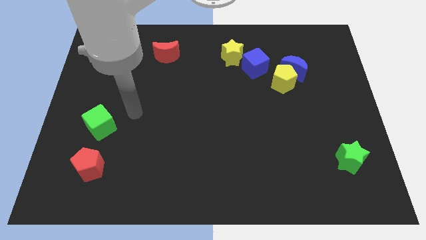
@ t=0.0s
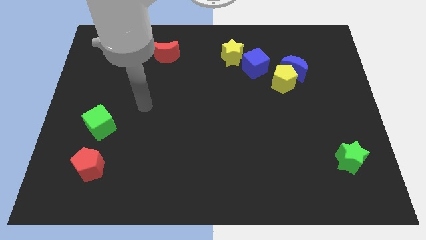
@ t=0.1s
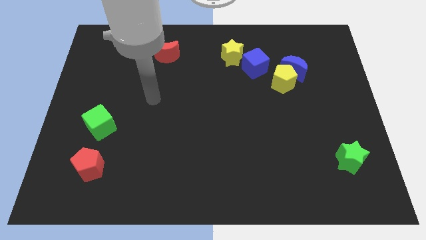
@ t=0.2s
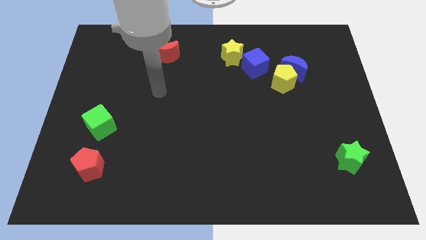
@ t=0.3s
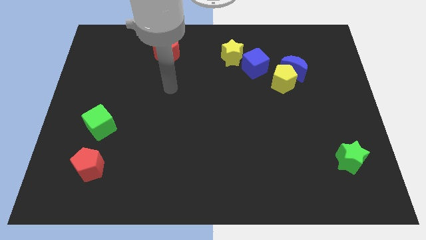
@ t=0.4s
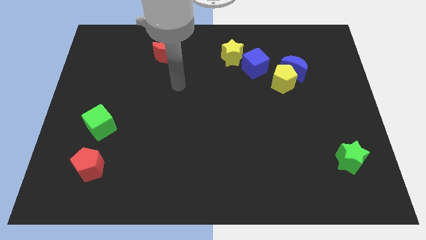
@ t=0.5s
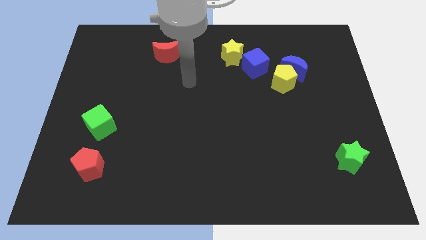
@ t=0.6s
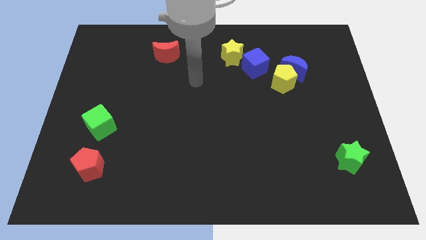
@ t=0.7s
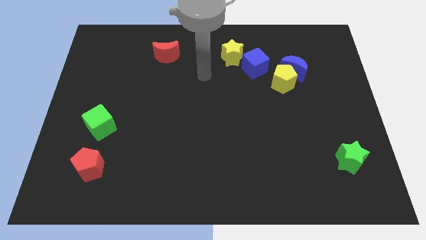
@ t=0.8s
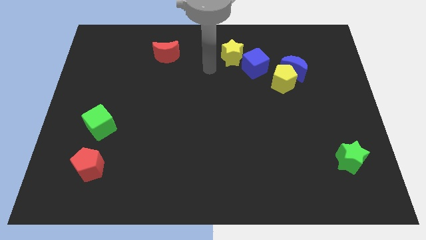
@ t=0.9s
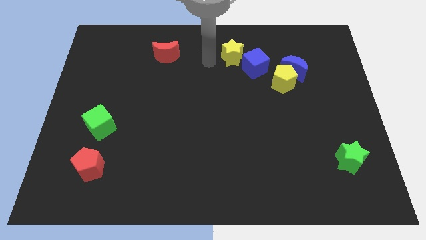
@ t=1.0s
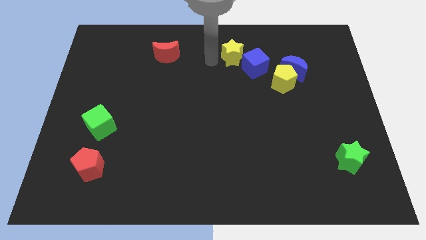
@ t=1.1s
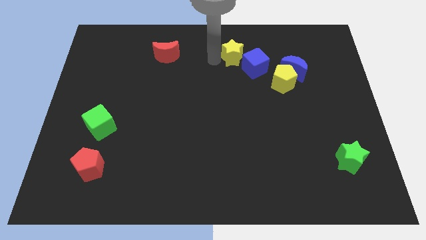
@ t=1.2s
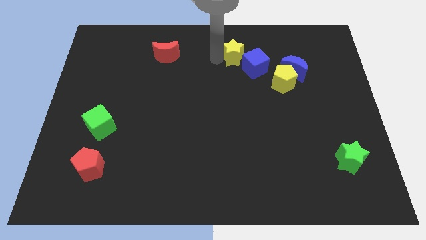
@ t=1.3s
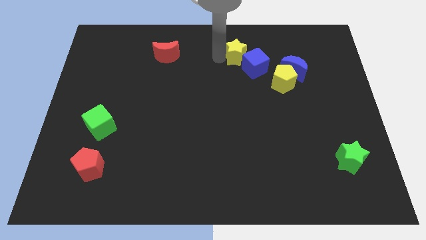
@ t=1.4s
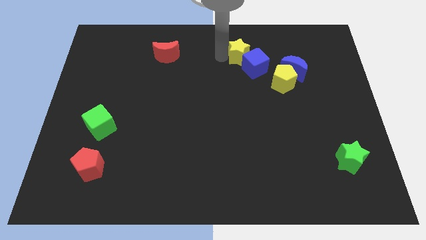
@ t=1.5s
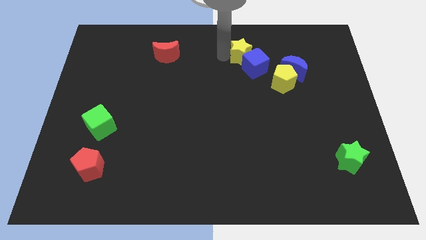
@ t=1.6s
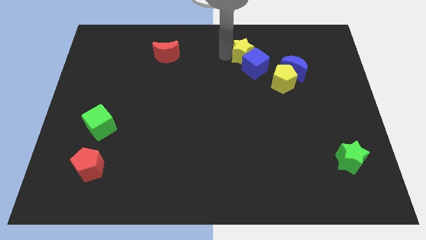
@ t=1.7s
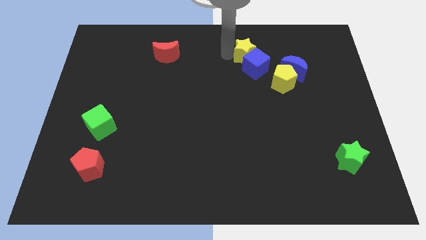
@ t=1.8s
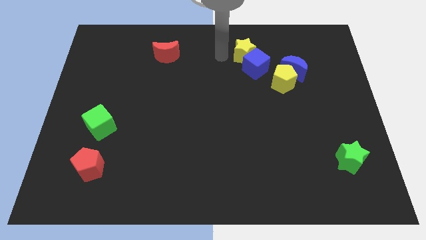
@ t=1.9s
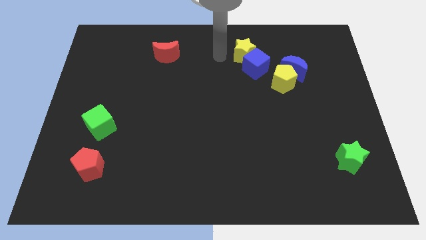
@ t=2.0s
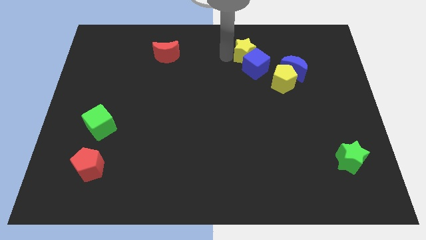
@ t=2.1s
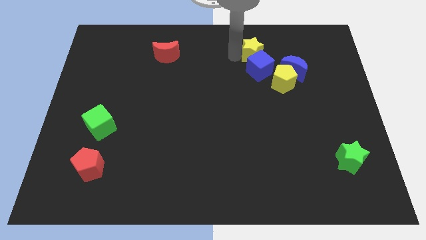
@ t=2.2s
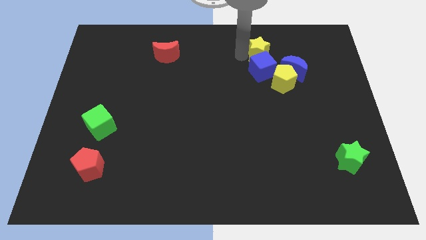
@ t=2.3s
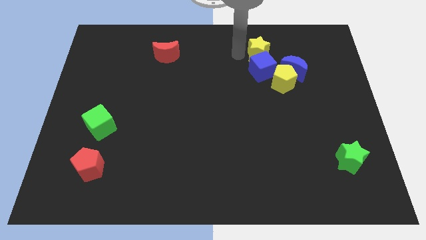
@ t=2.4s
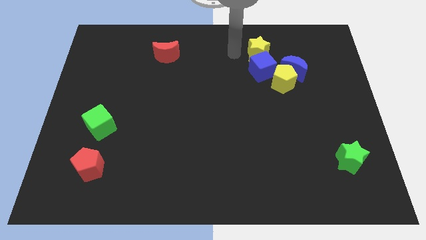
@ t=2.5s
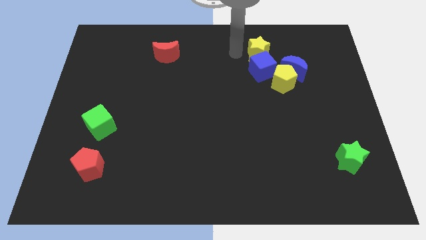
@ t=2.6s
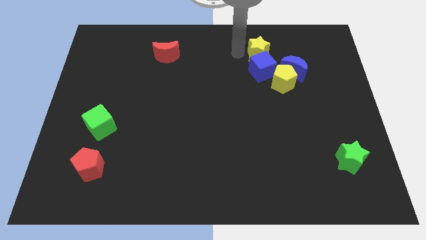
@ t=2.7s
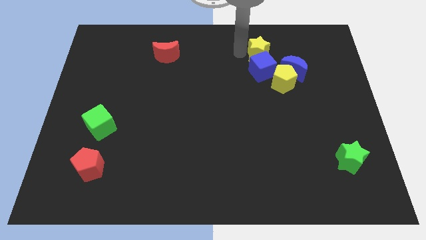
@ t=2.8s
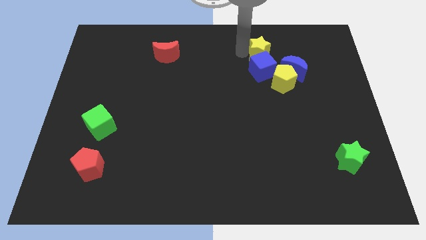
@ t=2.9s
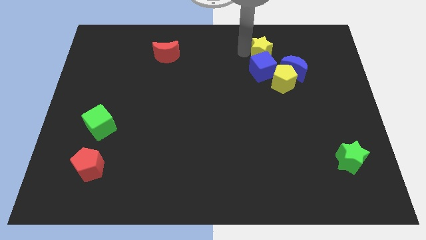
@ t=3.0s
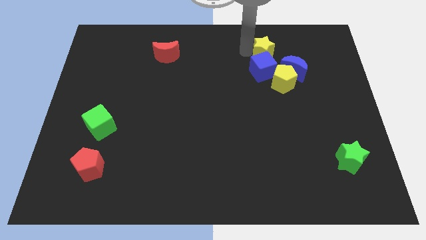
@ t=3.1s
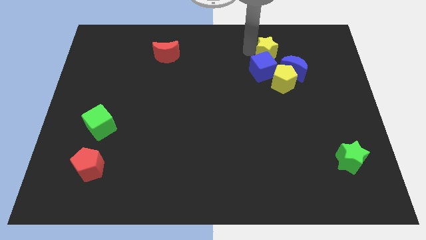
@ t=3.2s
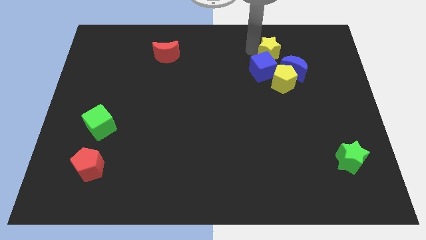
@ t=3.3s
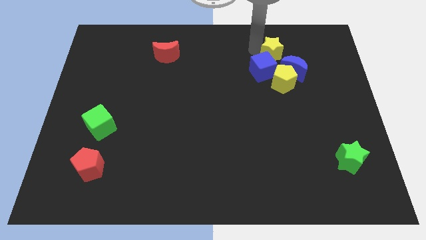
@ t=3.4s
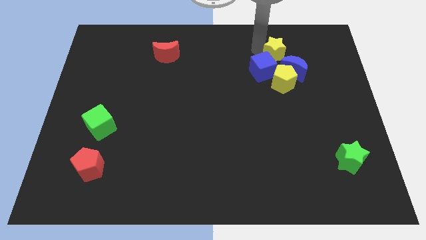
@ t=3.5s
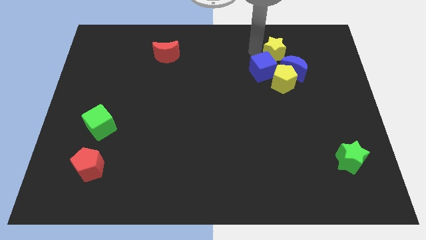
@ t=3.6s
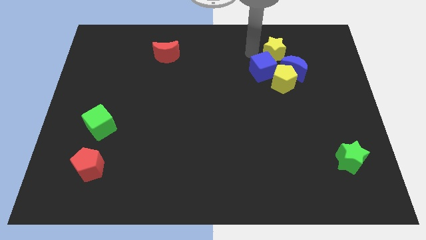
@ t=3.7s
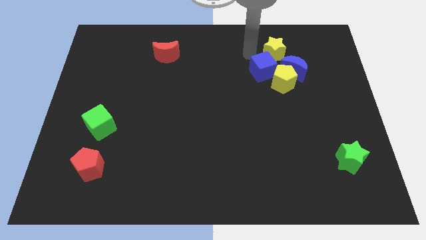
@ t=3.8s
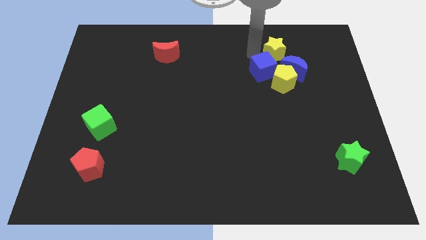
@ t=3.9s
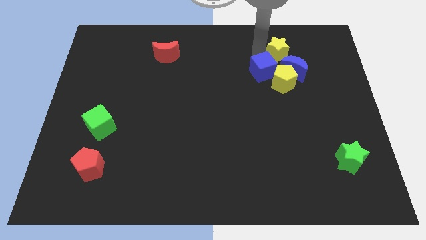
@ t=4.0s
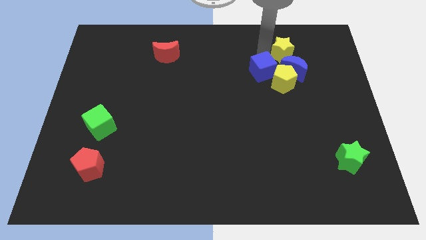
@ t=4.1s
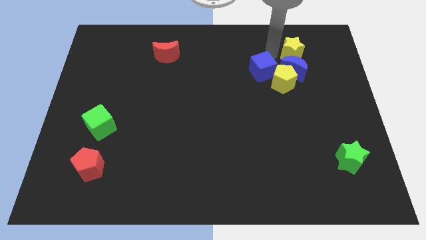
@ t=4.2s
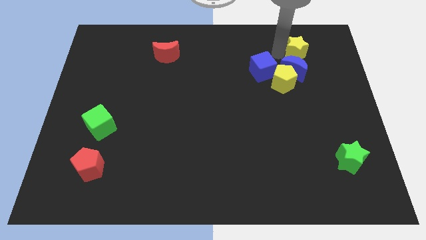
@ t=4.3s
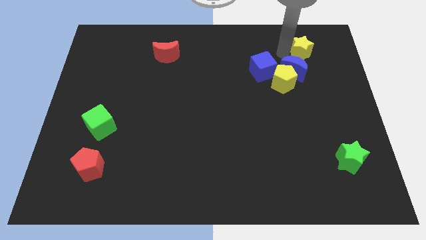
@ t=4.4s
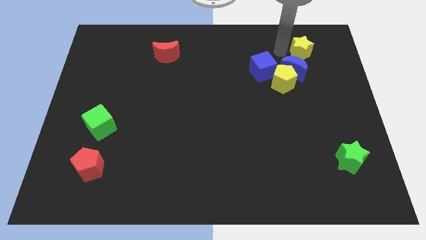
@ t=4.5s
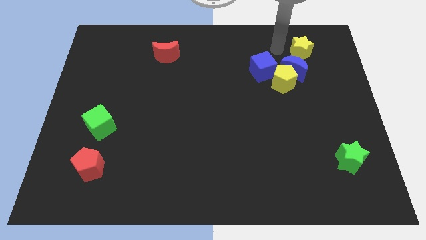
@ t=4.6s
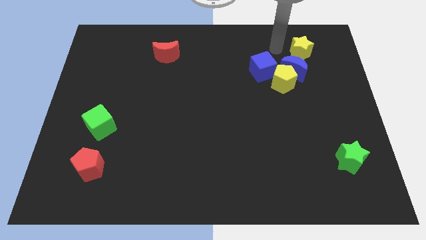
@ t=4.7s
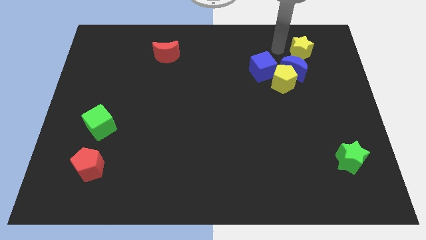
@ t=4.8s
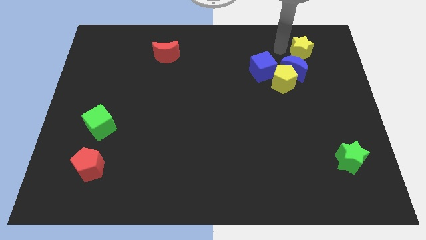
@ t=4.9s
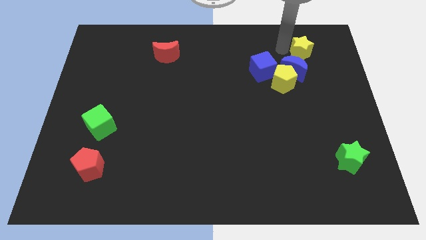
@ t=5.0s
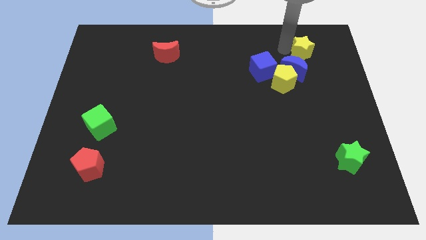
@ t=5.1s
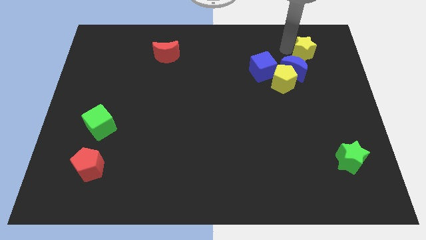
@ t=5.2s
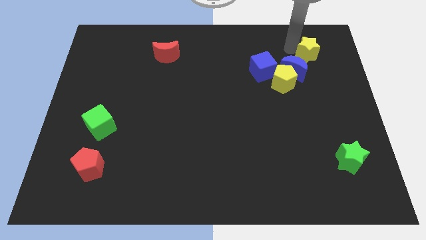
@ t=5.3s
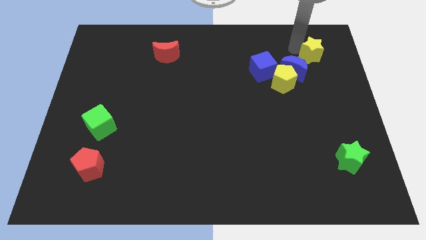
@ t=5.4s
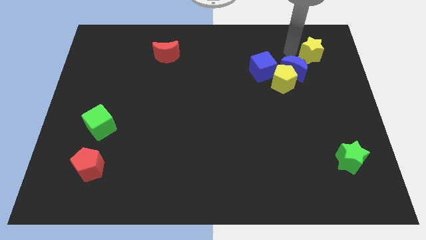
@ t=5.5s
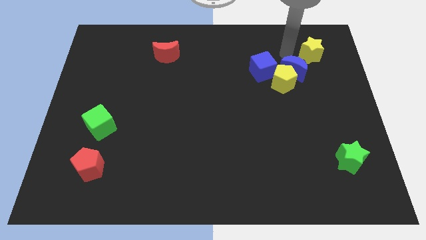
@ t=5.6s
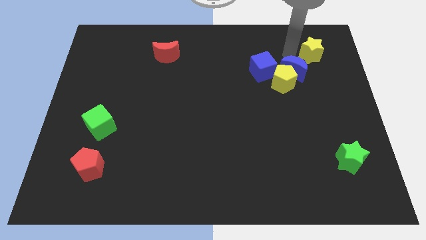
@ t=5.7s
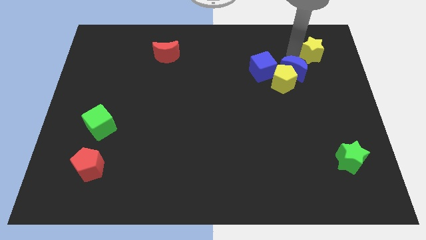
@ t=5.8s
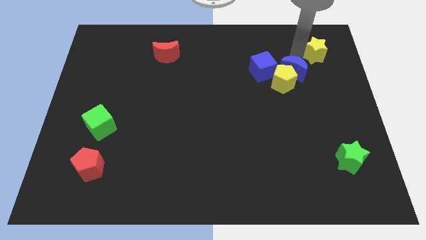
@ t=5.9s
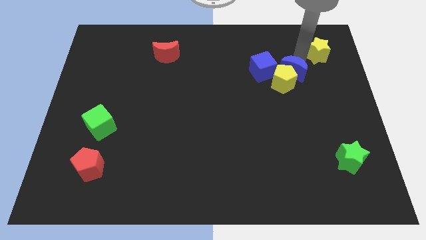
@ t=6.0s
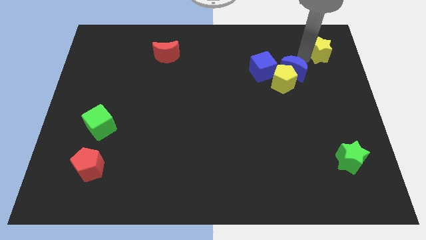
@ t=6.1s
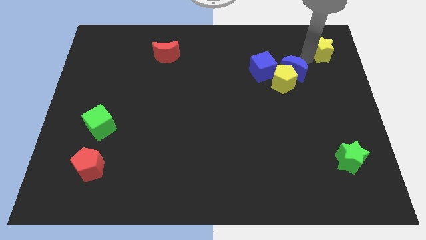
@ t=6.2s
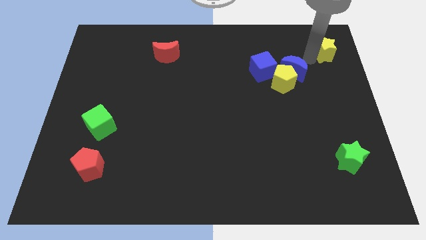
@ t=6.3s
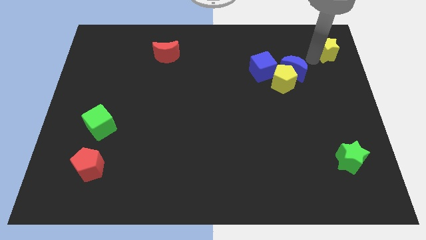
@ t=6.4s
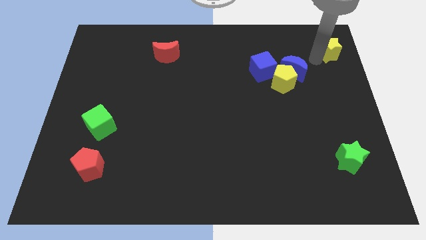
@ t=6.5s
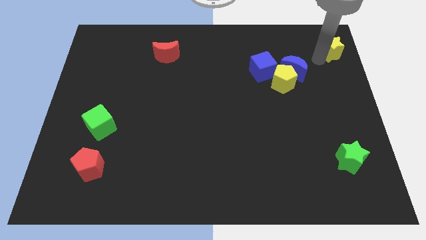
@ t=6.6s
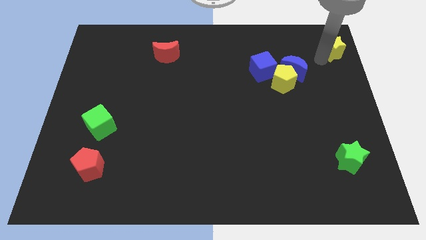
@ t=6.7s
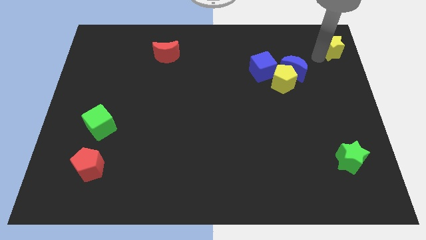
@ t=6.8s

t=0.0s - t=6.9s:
push the yellow star to the top right corner
